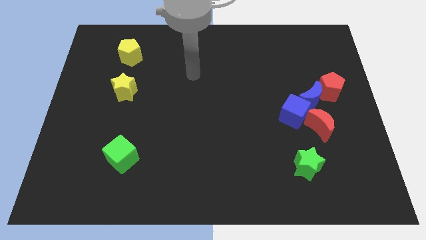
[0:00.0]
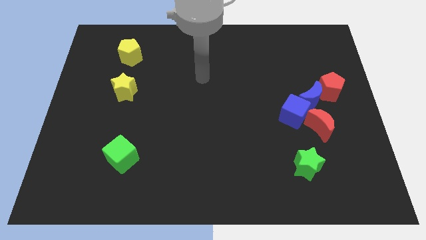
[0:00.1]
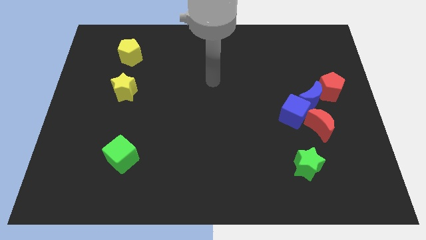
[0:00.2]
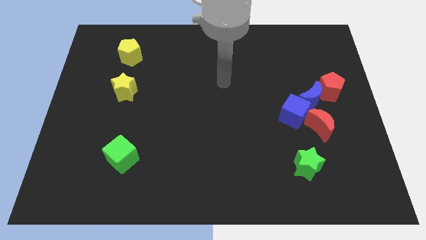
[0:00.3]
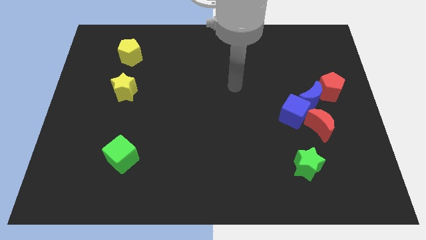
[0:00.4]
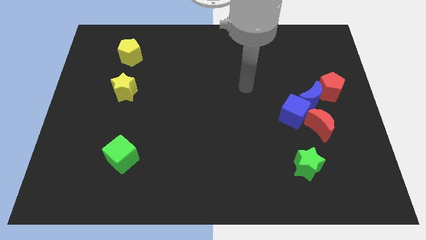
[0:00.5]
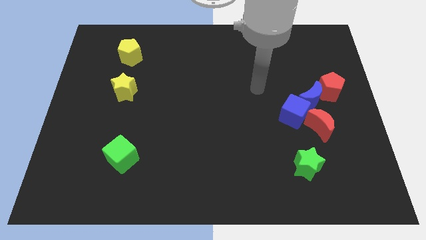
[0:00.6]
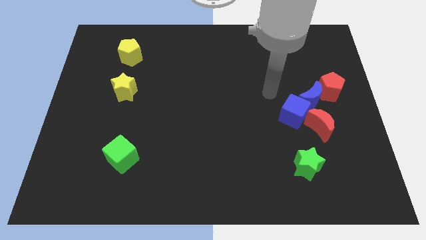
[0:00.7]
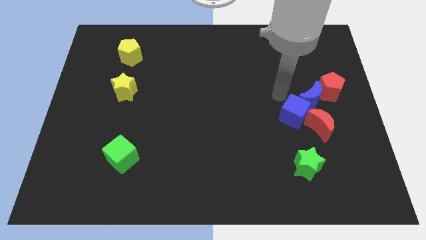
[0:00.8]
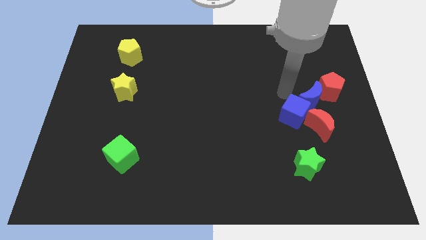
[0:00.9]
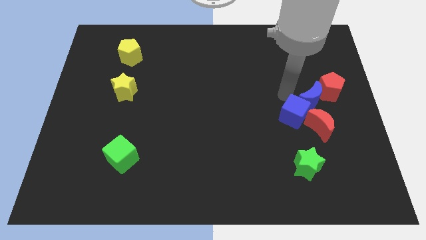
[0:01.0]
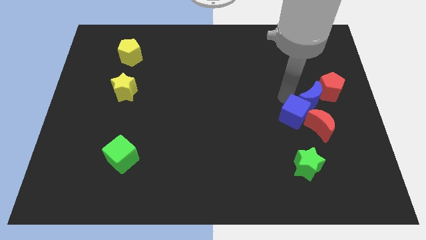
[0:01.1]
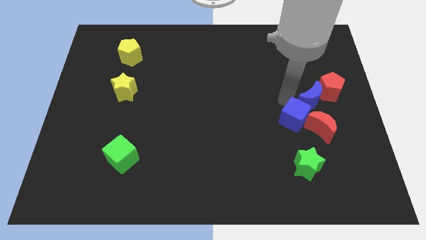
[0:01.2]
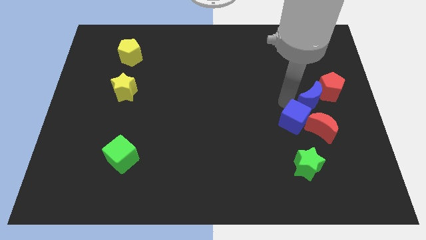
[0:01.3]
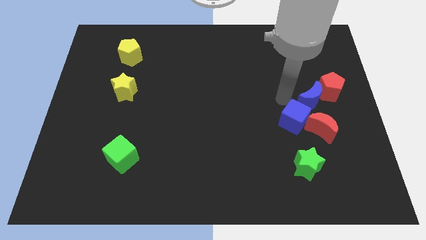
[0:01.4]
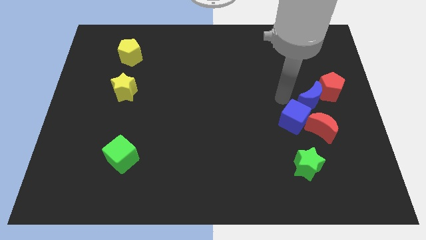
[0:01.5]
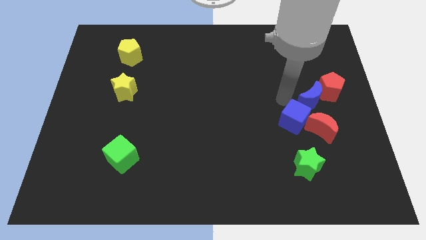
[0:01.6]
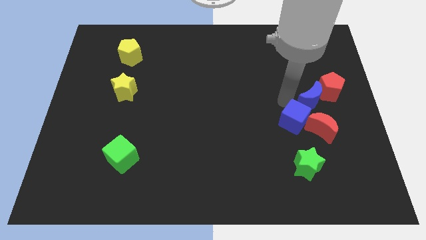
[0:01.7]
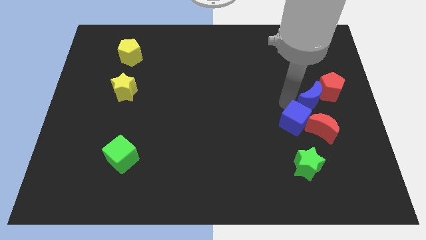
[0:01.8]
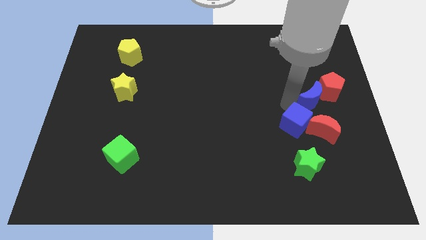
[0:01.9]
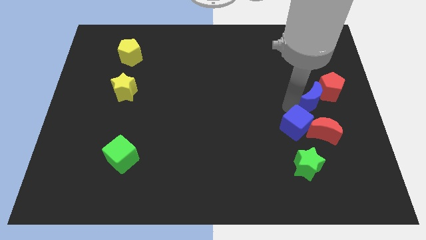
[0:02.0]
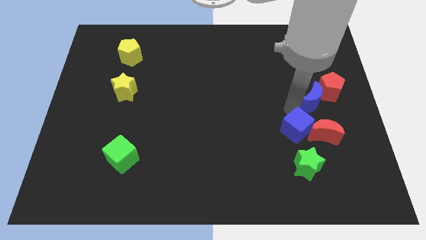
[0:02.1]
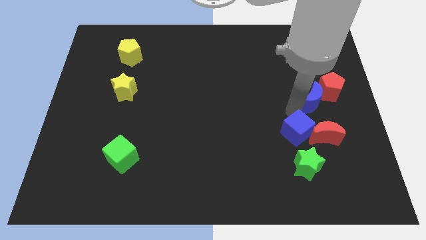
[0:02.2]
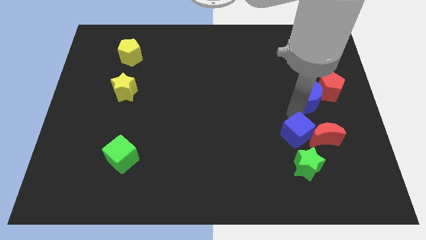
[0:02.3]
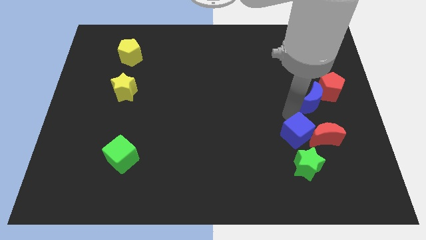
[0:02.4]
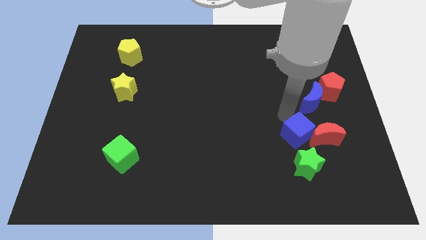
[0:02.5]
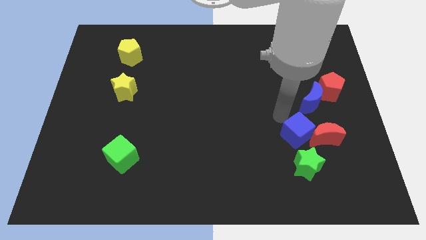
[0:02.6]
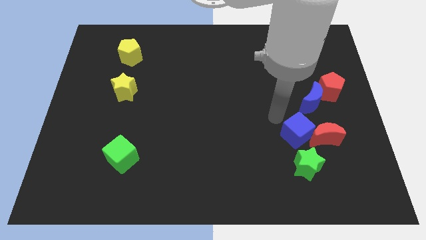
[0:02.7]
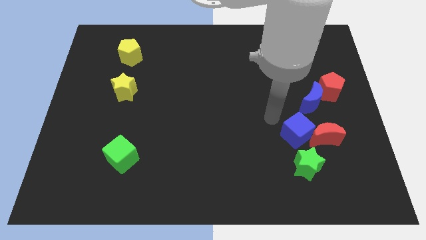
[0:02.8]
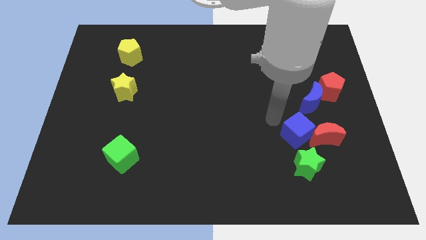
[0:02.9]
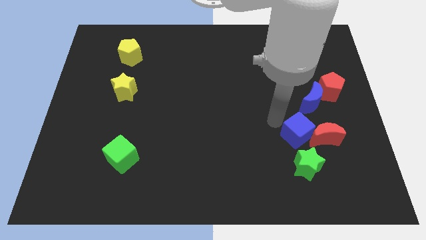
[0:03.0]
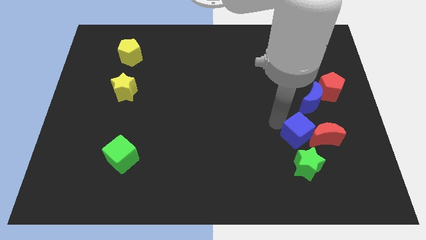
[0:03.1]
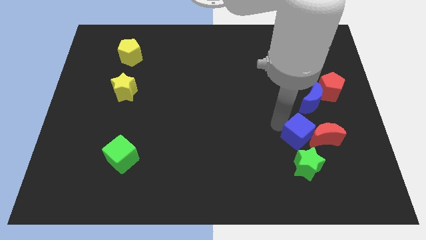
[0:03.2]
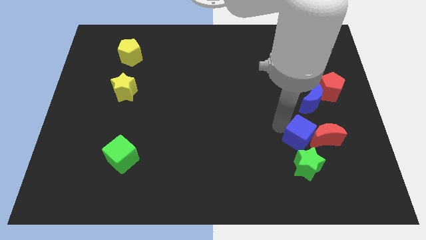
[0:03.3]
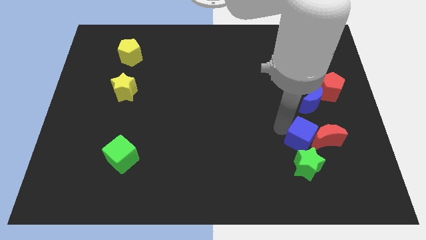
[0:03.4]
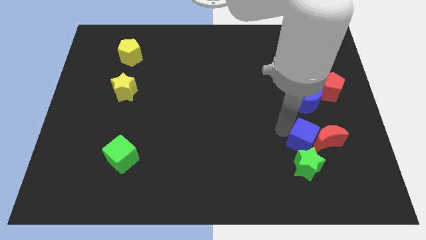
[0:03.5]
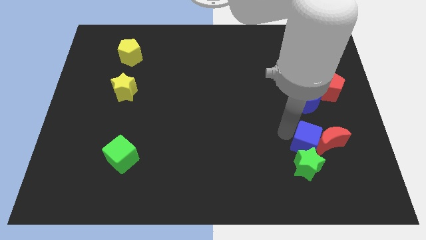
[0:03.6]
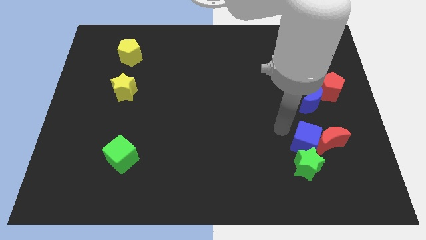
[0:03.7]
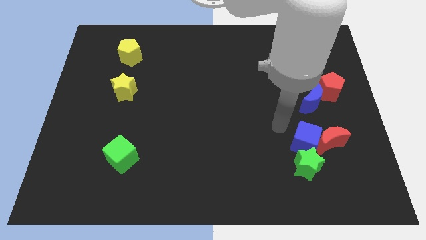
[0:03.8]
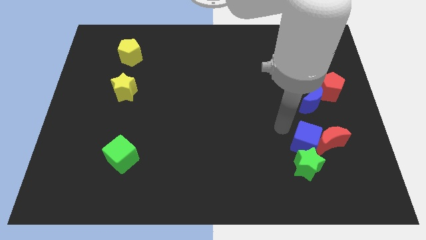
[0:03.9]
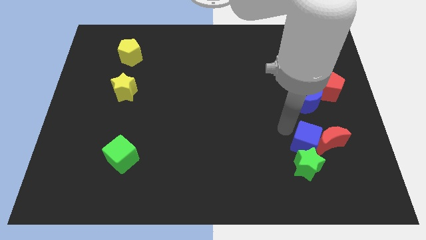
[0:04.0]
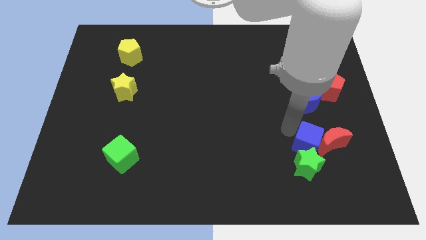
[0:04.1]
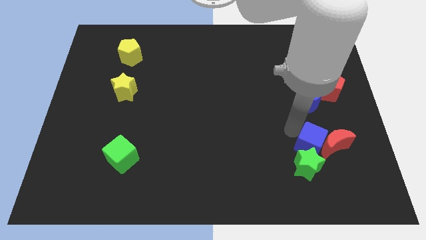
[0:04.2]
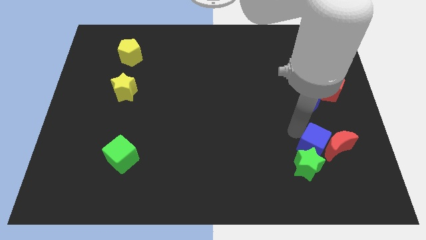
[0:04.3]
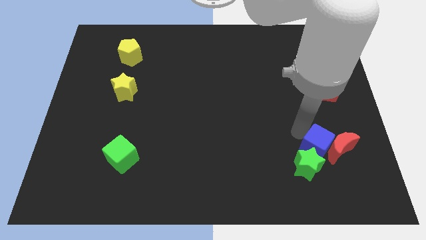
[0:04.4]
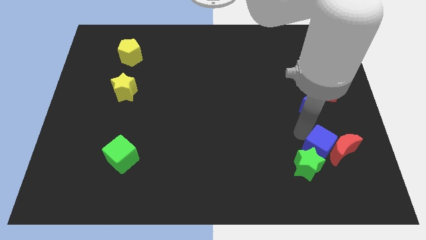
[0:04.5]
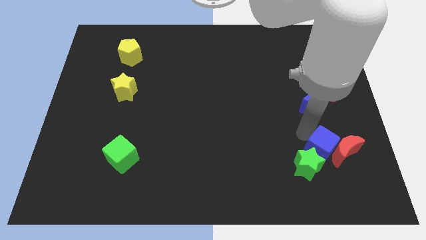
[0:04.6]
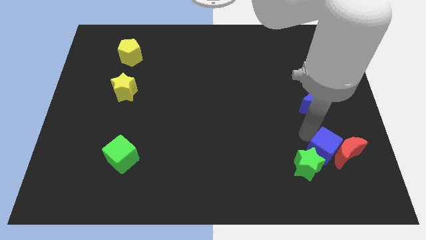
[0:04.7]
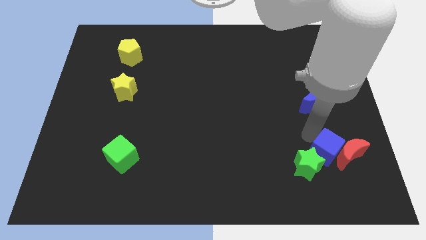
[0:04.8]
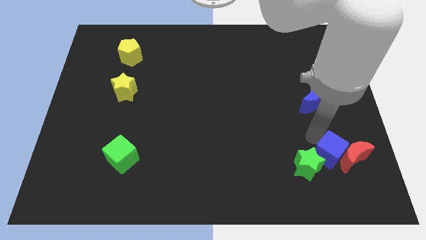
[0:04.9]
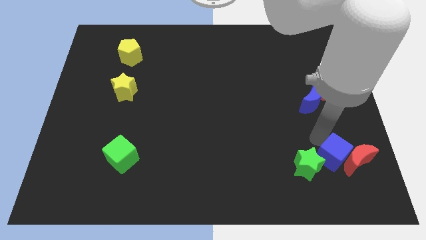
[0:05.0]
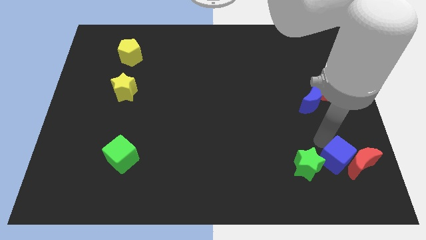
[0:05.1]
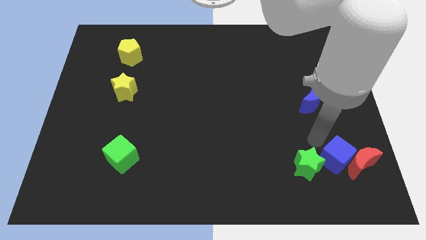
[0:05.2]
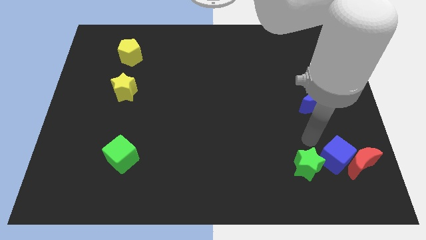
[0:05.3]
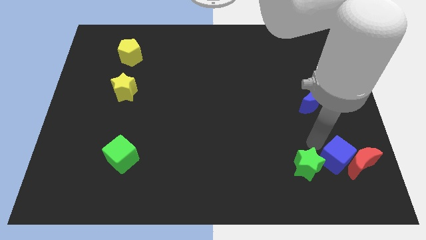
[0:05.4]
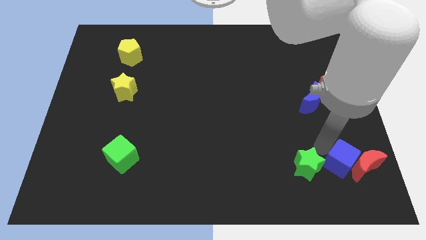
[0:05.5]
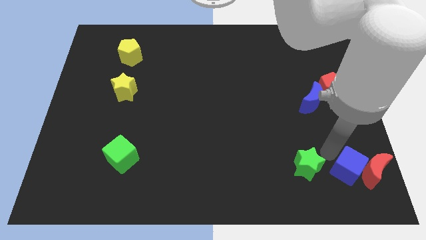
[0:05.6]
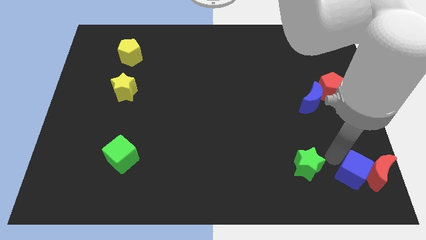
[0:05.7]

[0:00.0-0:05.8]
push the blue cube to the bottom right

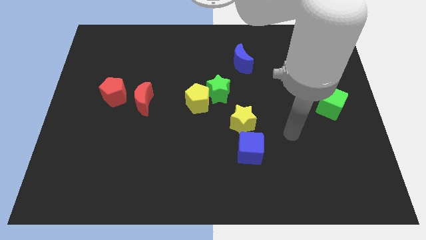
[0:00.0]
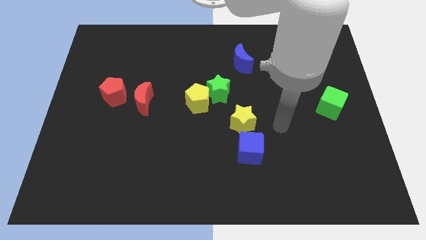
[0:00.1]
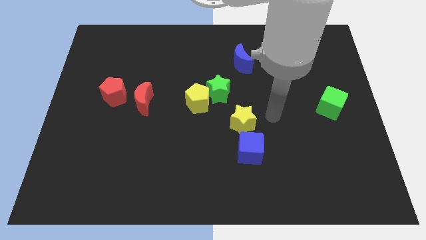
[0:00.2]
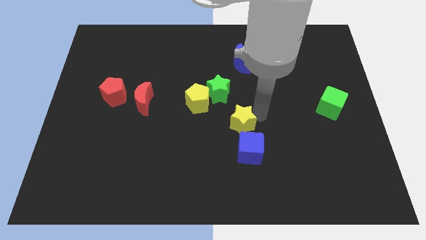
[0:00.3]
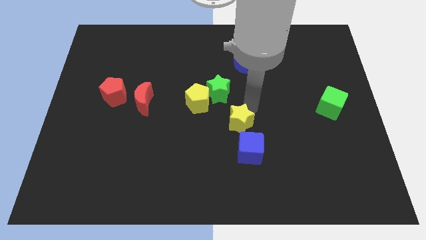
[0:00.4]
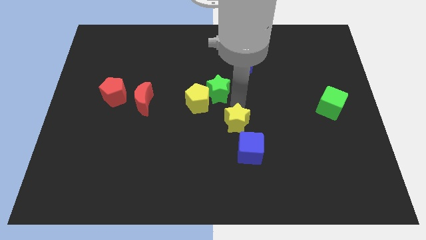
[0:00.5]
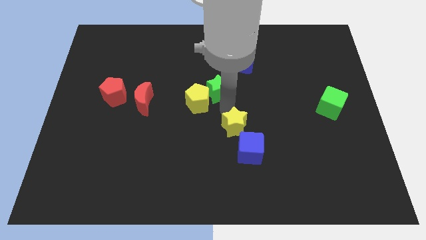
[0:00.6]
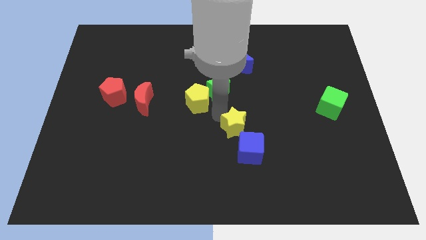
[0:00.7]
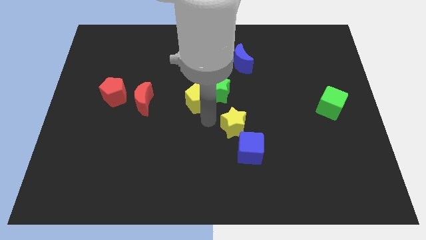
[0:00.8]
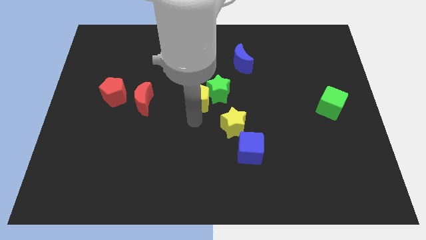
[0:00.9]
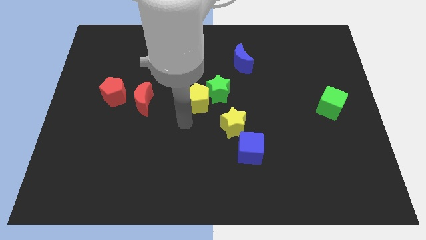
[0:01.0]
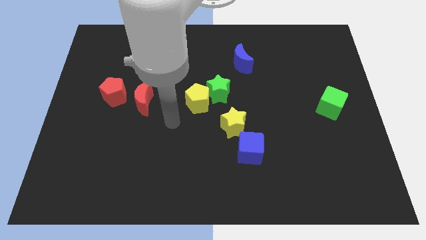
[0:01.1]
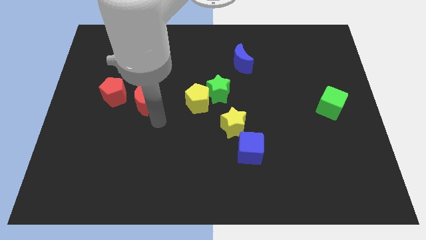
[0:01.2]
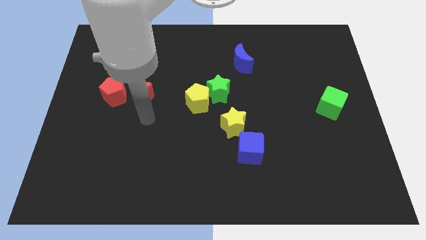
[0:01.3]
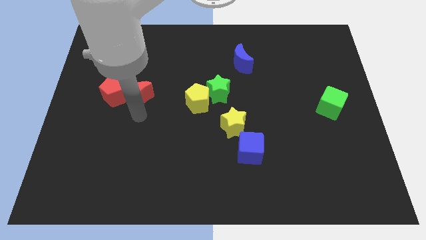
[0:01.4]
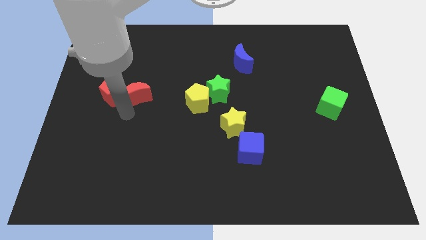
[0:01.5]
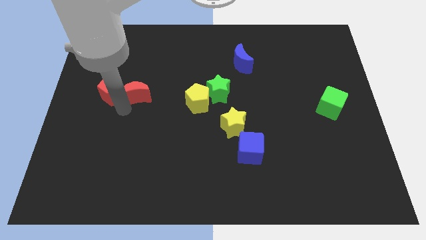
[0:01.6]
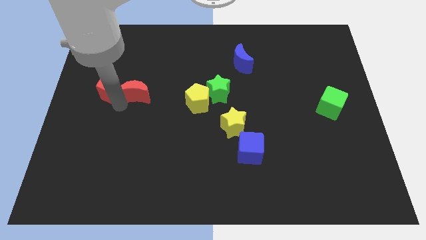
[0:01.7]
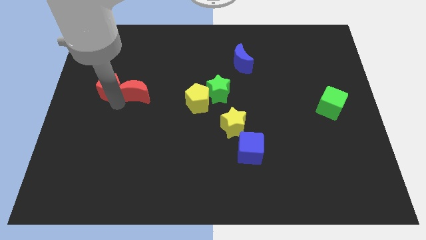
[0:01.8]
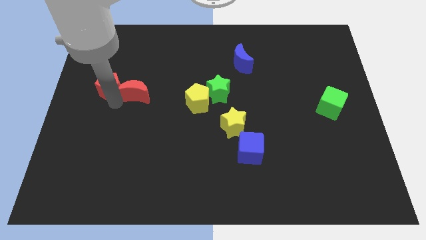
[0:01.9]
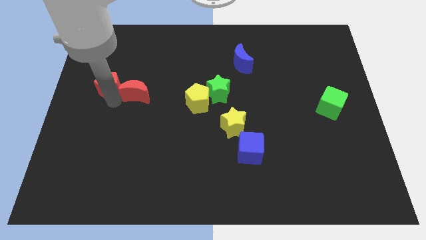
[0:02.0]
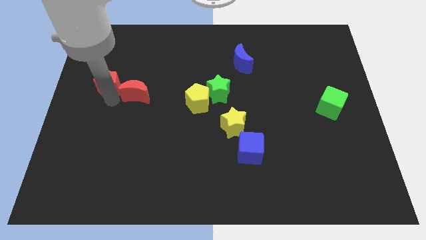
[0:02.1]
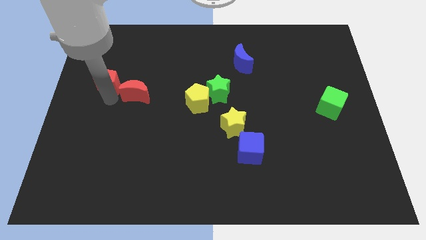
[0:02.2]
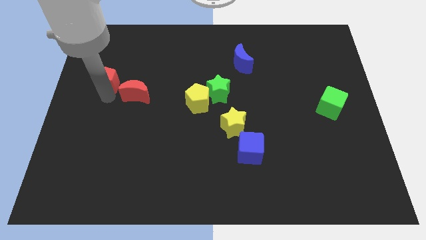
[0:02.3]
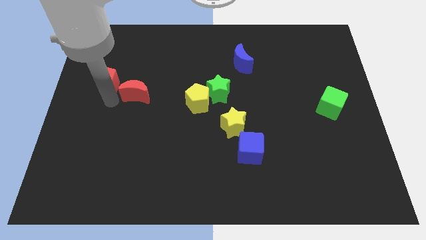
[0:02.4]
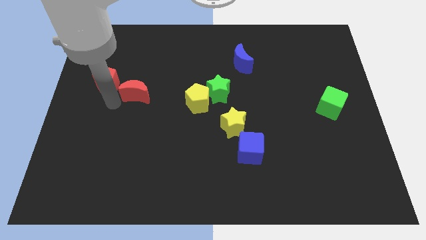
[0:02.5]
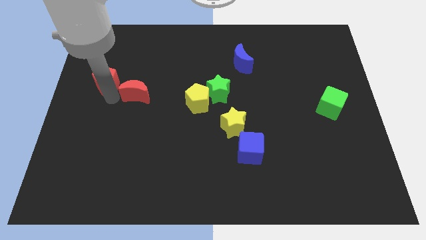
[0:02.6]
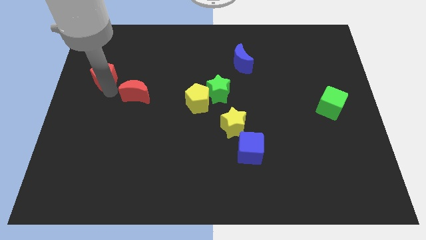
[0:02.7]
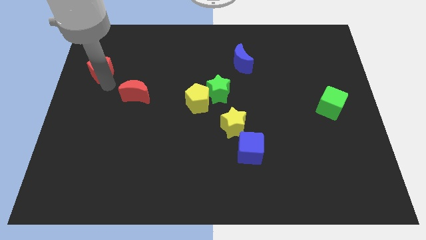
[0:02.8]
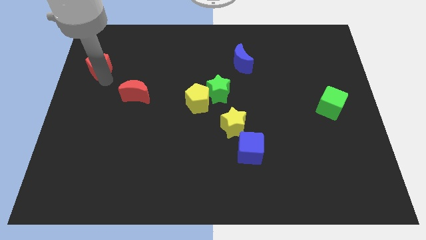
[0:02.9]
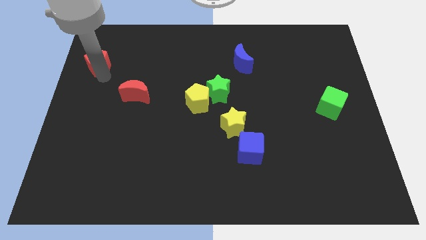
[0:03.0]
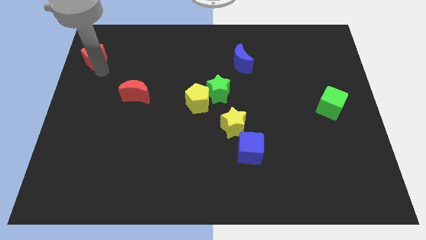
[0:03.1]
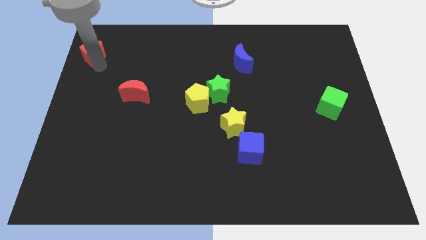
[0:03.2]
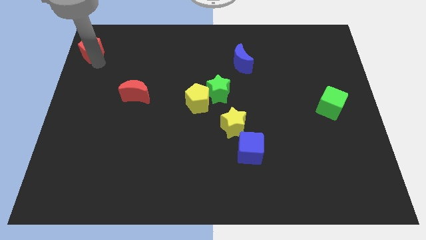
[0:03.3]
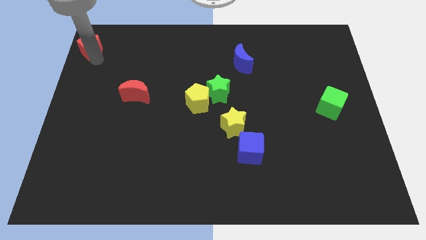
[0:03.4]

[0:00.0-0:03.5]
push the red pentagon to the top left
